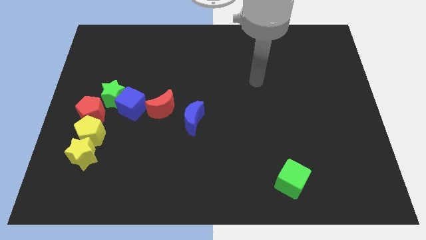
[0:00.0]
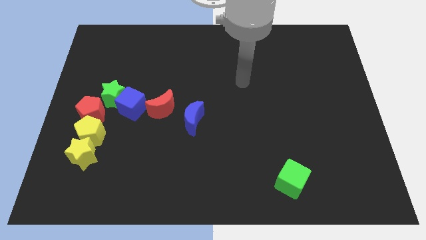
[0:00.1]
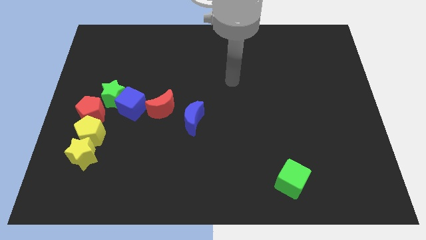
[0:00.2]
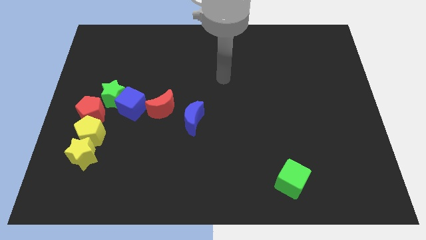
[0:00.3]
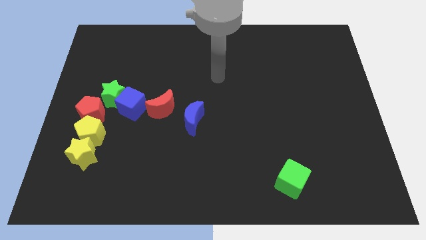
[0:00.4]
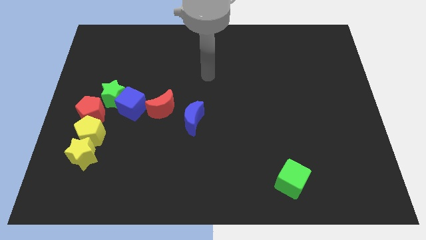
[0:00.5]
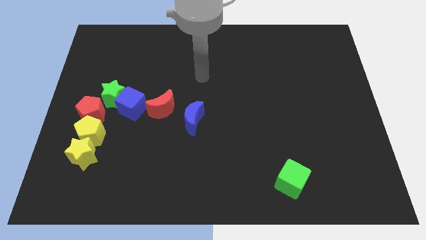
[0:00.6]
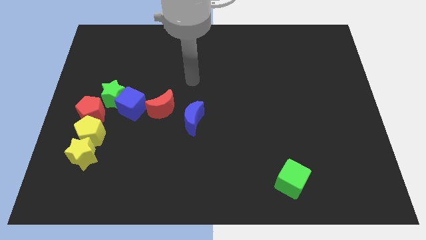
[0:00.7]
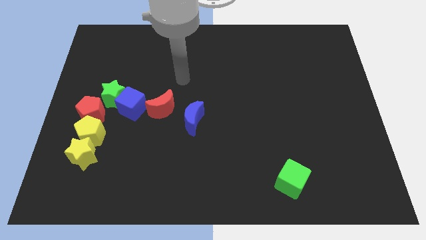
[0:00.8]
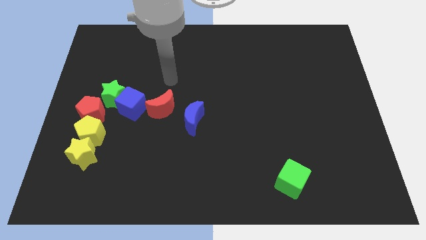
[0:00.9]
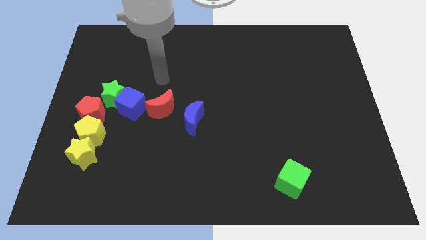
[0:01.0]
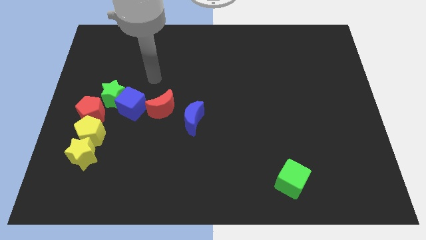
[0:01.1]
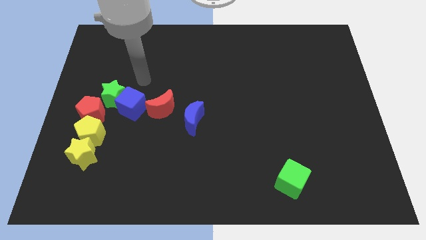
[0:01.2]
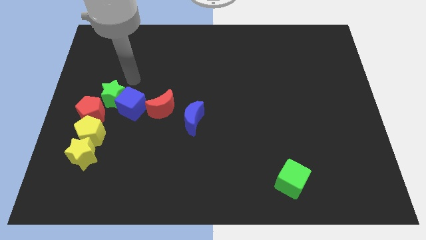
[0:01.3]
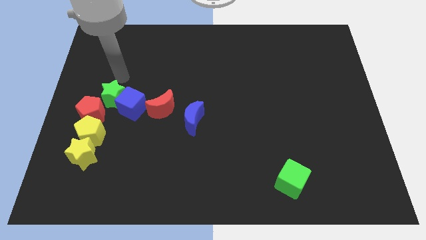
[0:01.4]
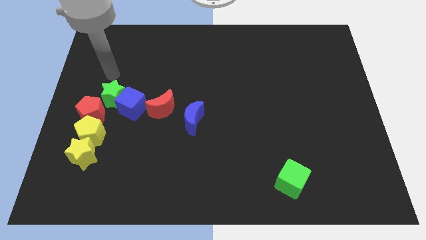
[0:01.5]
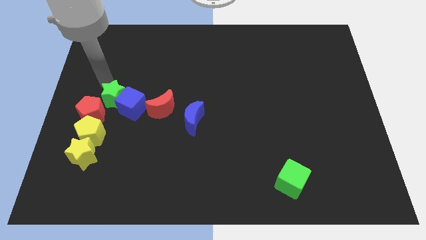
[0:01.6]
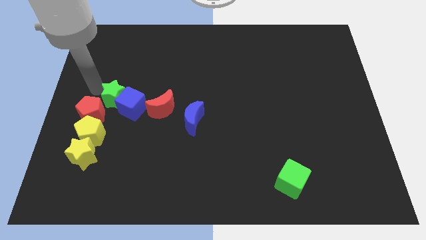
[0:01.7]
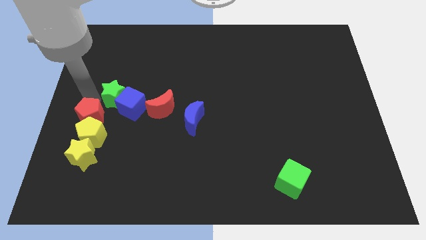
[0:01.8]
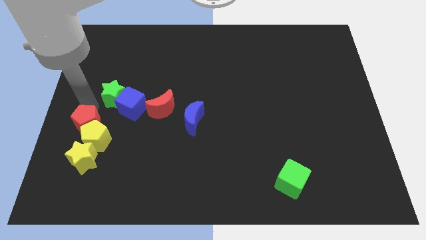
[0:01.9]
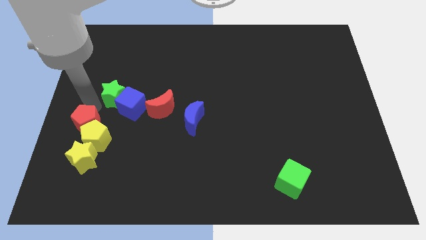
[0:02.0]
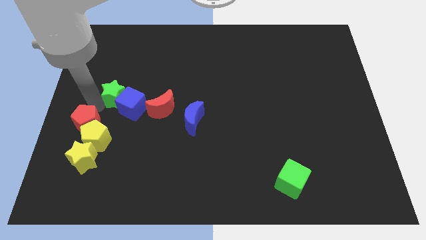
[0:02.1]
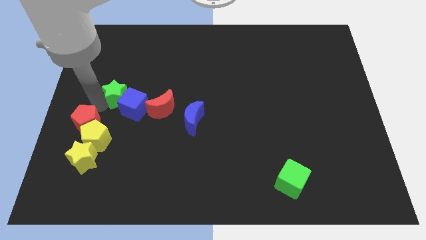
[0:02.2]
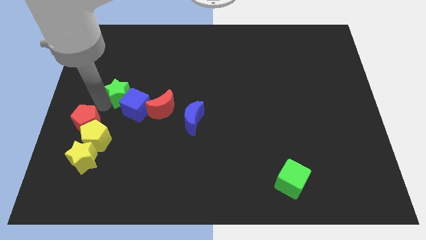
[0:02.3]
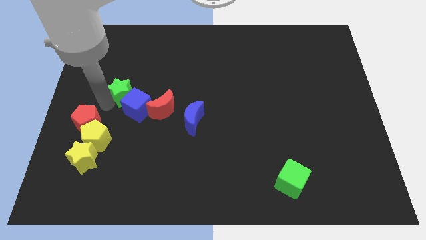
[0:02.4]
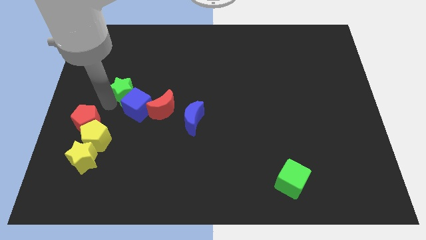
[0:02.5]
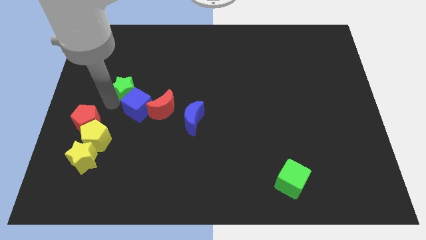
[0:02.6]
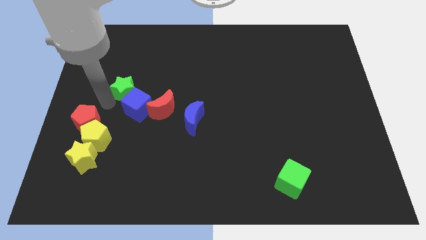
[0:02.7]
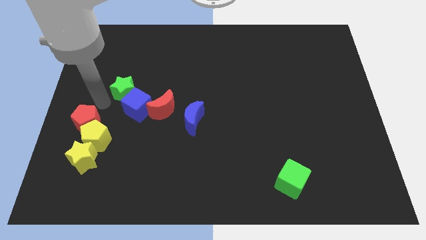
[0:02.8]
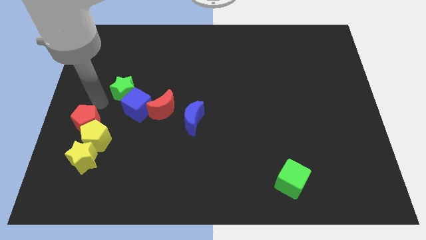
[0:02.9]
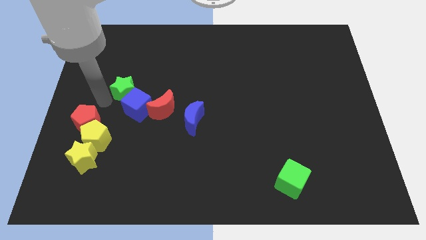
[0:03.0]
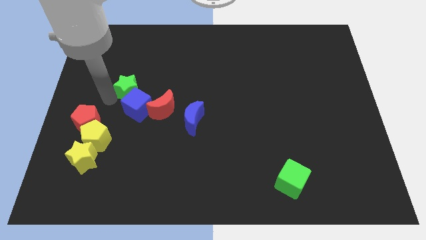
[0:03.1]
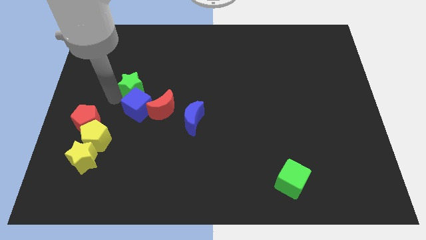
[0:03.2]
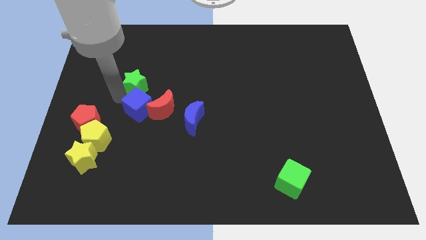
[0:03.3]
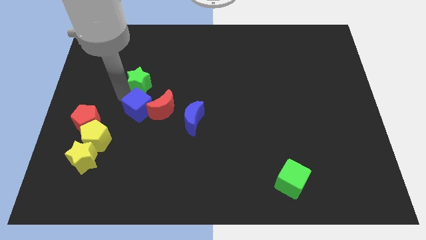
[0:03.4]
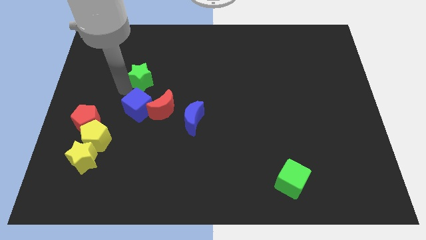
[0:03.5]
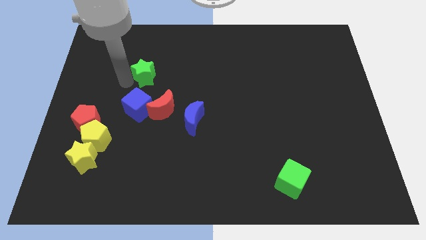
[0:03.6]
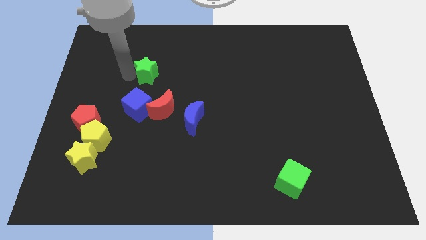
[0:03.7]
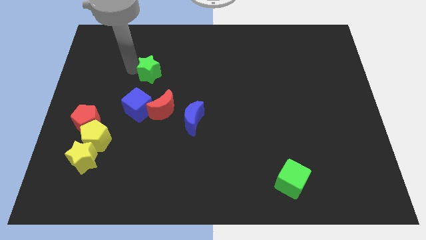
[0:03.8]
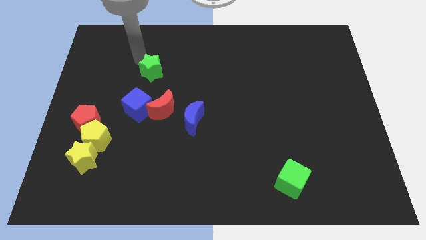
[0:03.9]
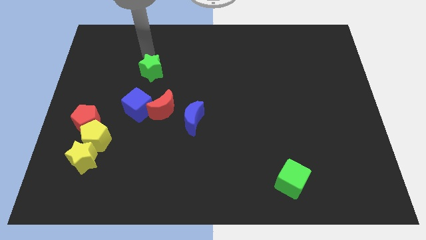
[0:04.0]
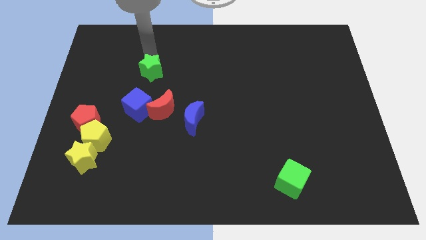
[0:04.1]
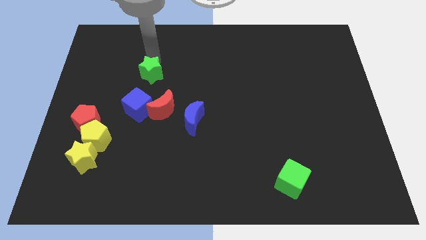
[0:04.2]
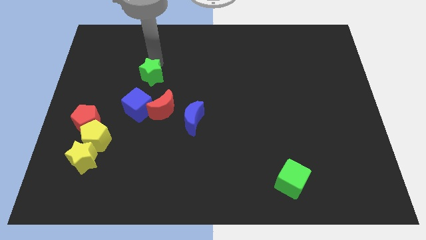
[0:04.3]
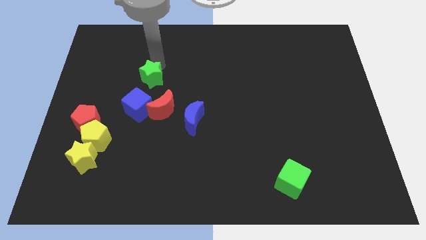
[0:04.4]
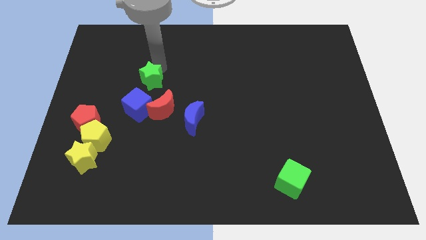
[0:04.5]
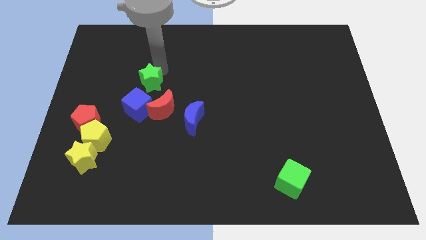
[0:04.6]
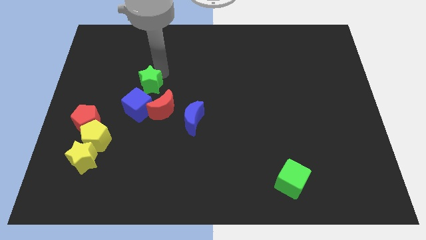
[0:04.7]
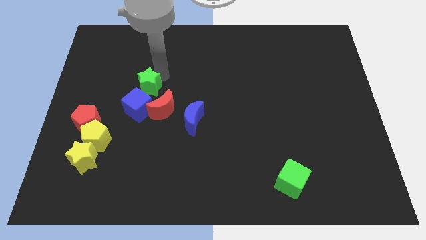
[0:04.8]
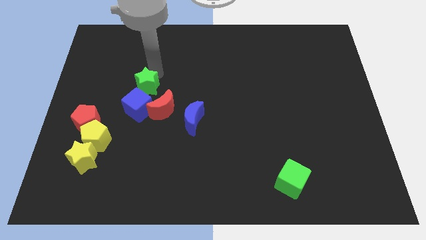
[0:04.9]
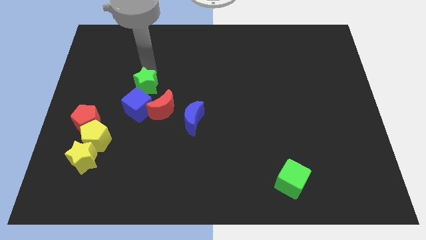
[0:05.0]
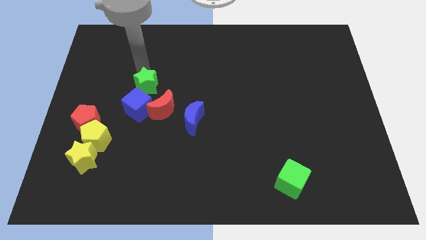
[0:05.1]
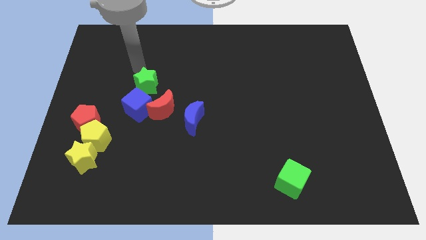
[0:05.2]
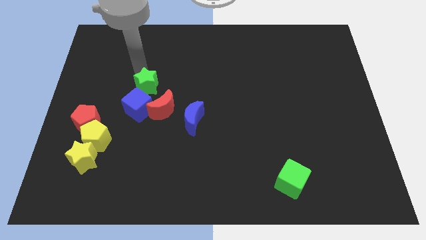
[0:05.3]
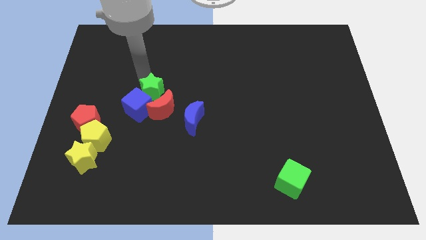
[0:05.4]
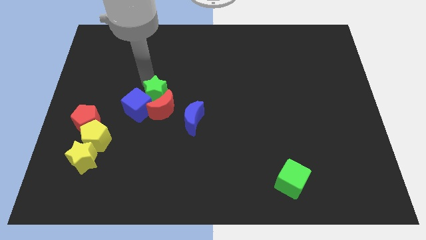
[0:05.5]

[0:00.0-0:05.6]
slide the green star close to the red moon
